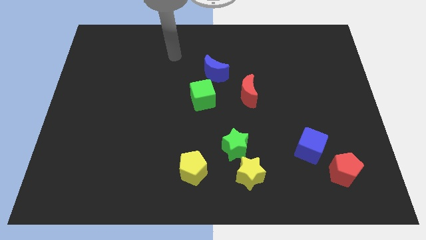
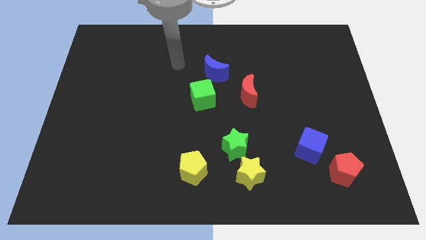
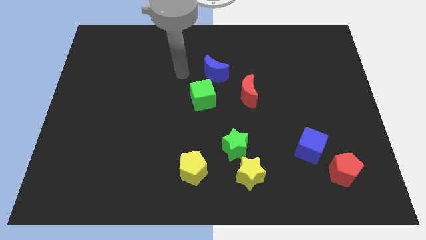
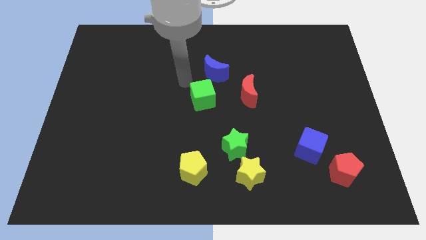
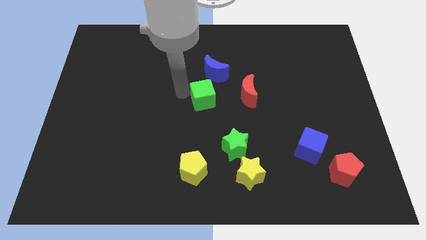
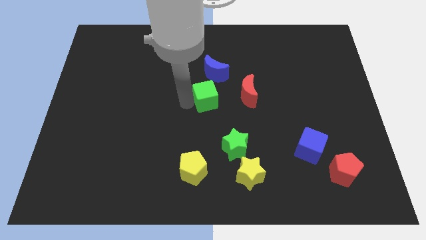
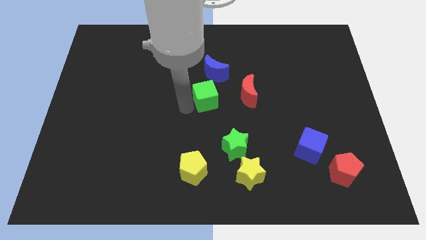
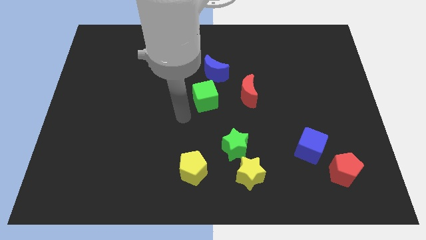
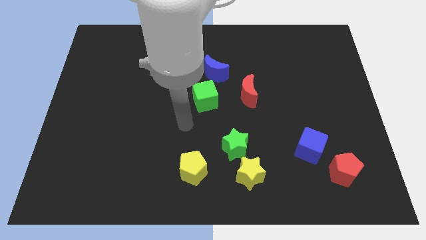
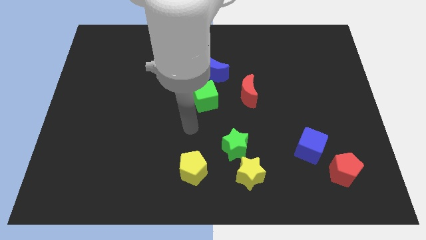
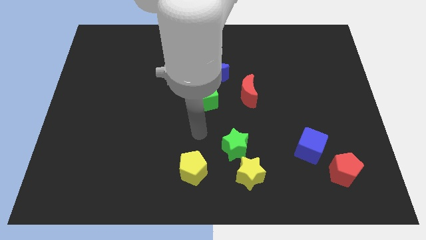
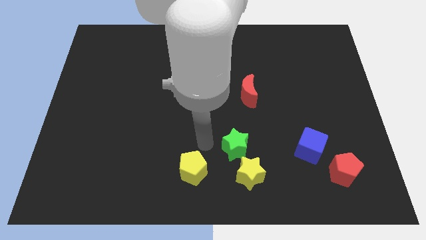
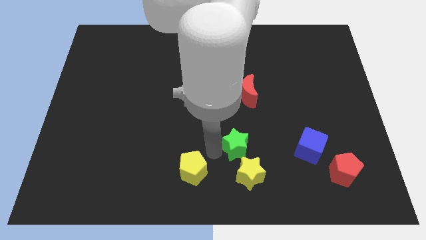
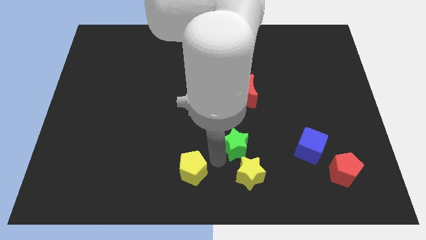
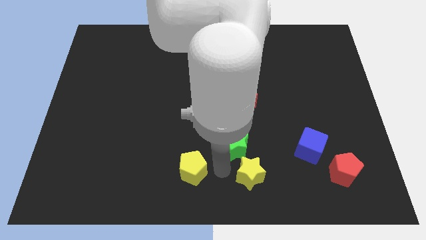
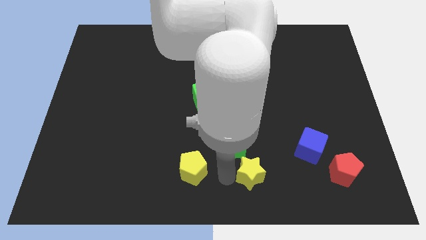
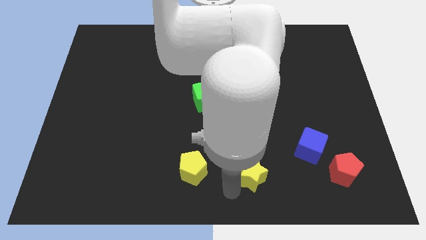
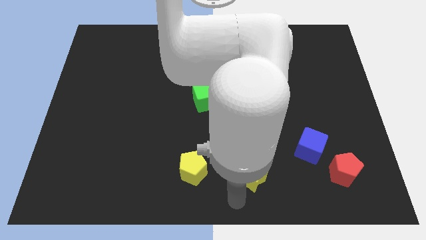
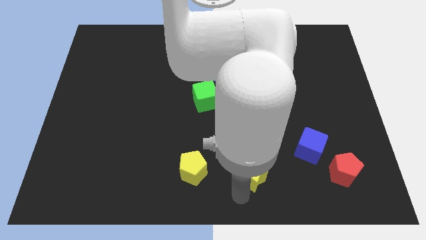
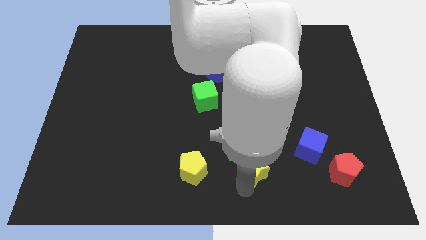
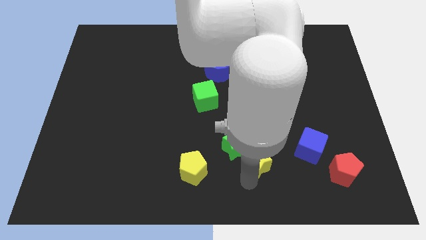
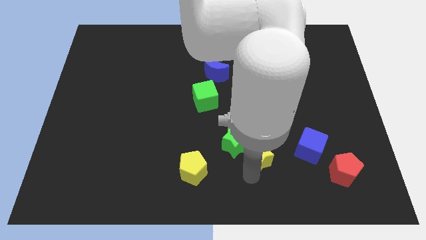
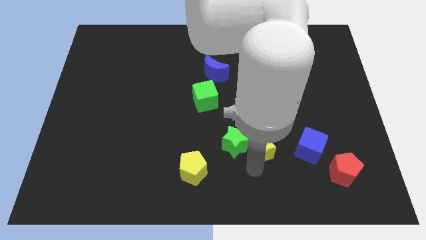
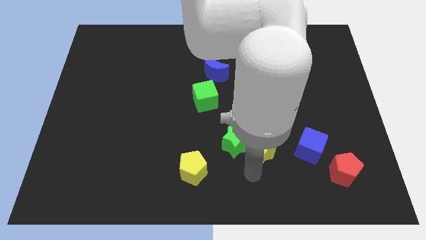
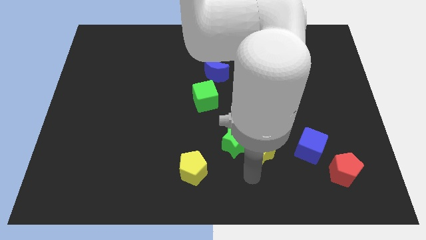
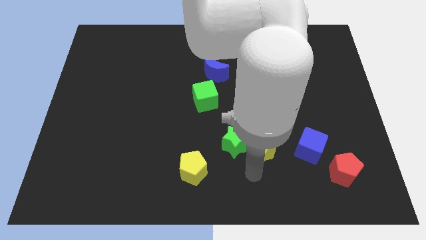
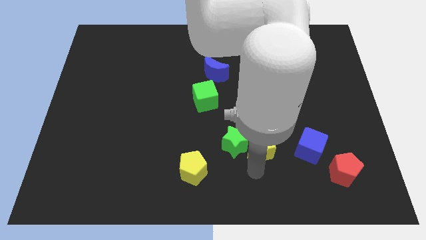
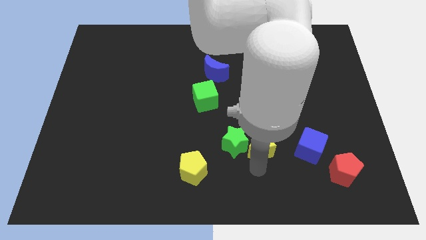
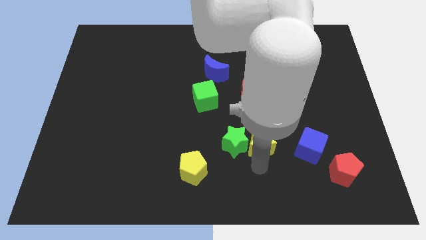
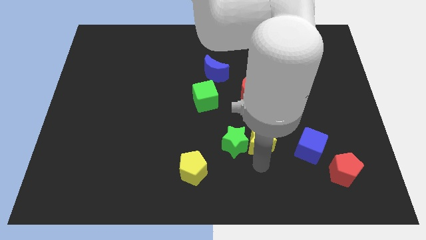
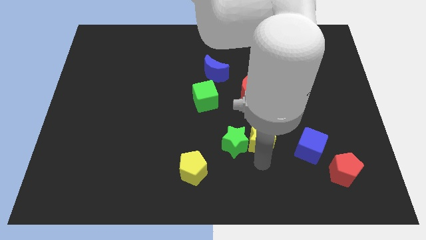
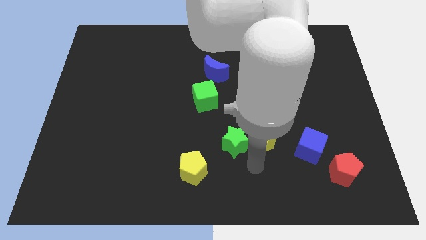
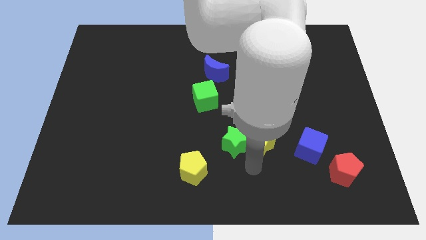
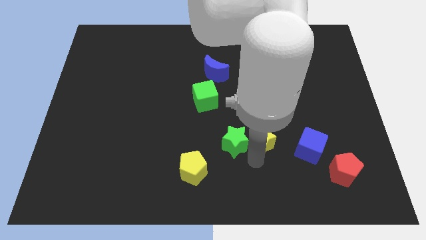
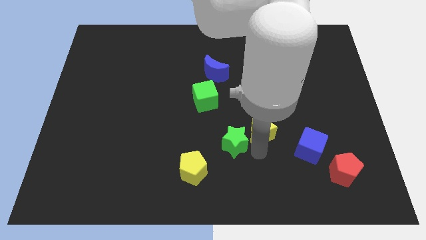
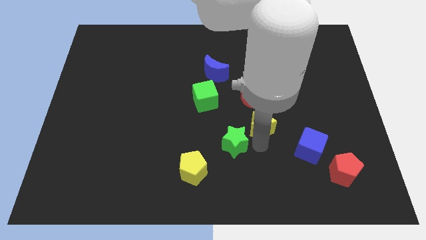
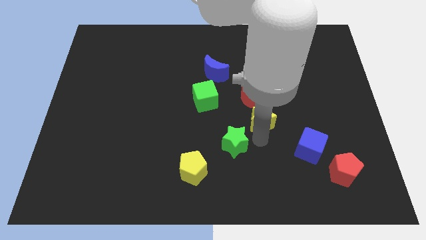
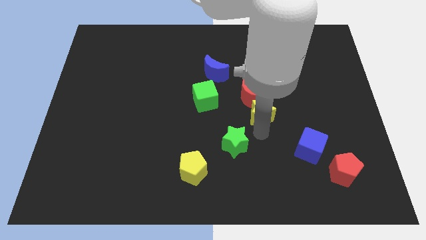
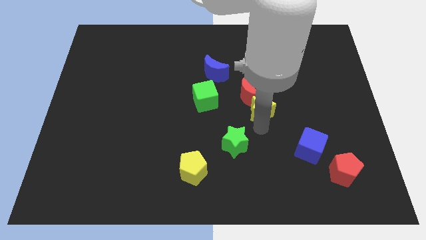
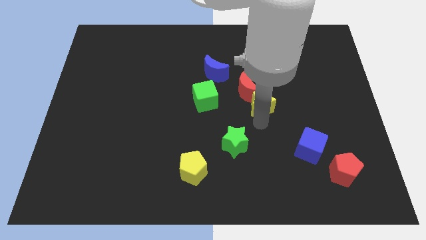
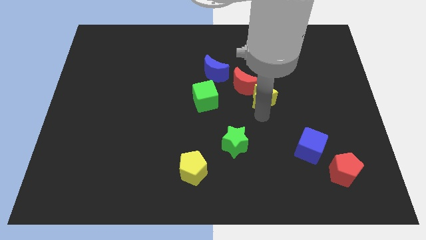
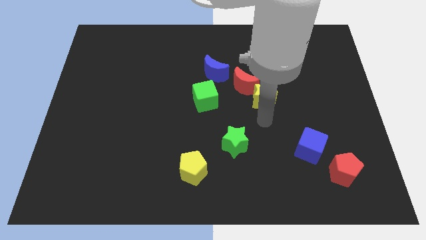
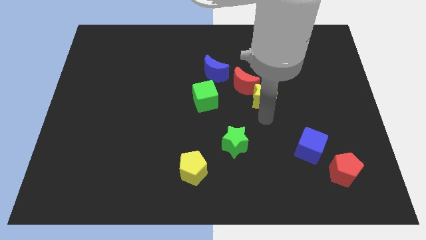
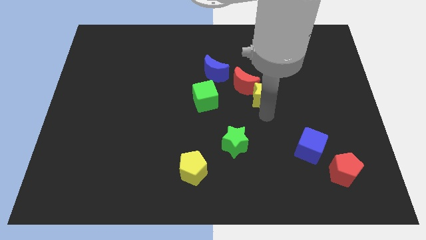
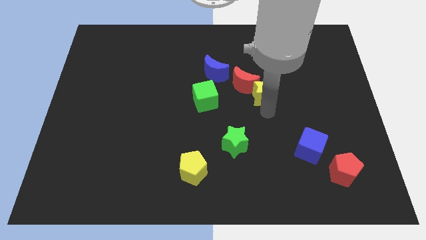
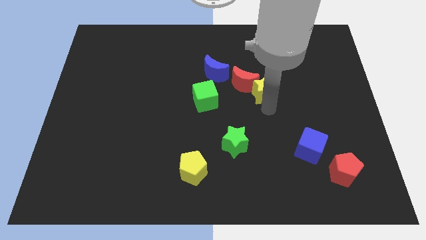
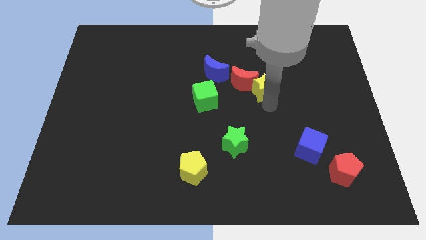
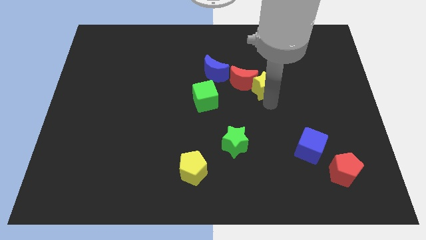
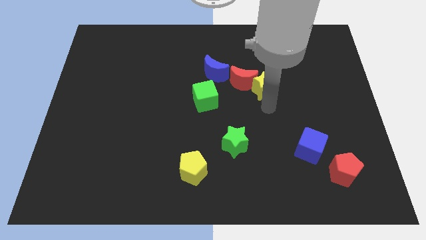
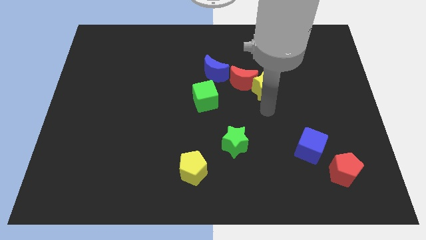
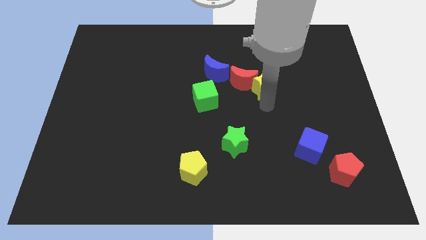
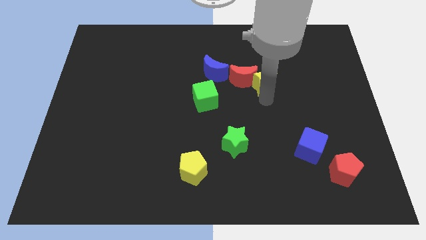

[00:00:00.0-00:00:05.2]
push the yellow star to the top right of the red moon

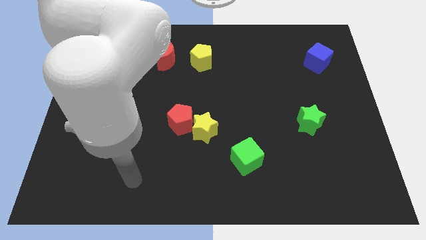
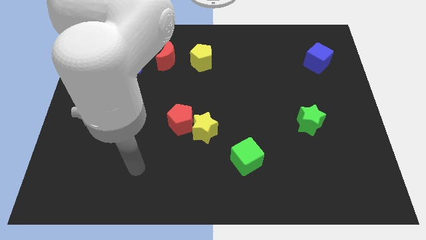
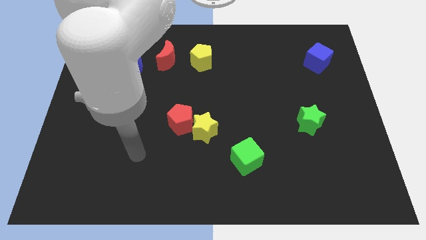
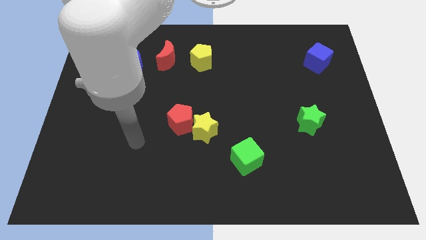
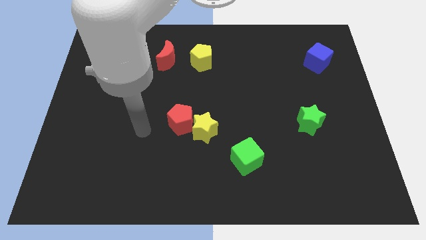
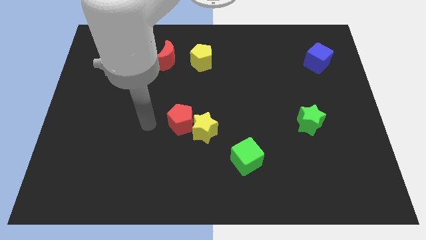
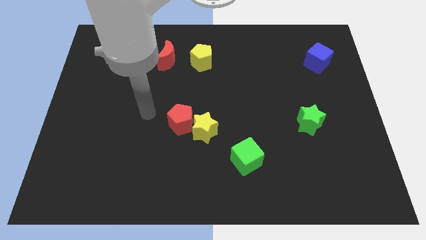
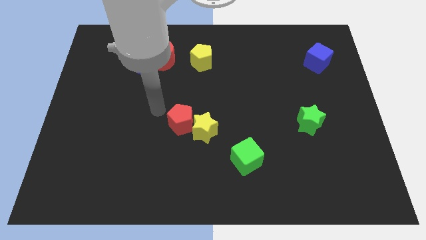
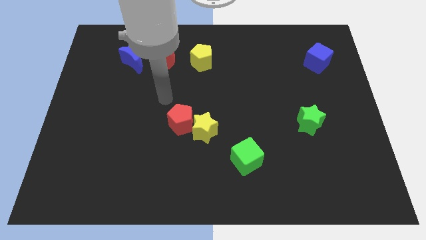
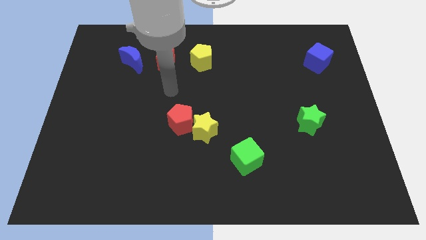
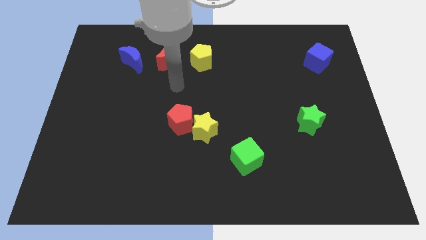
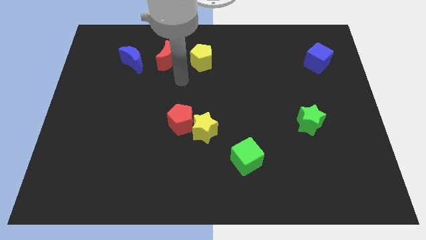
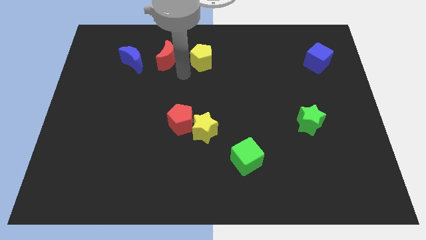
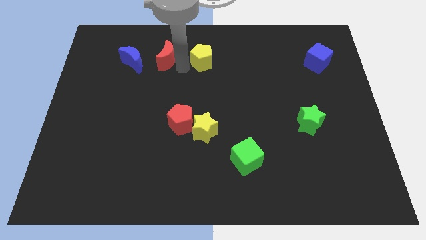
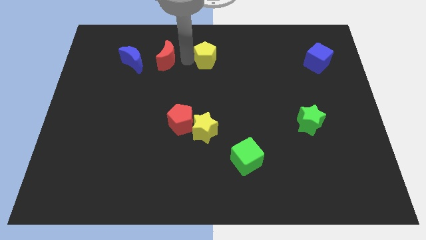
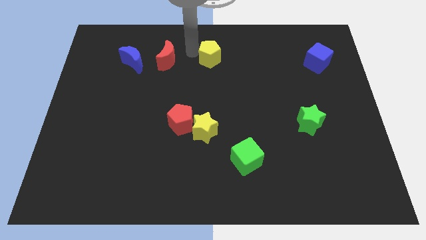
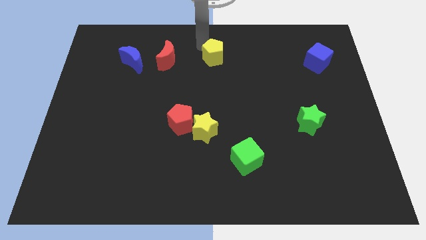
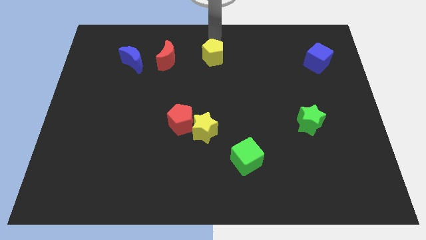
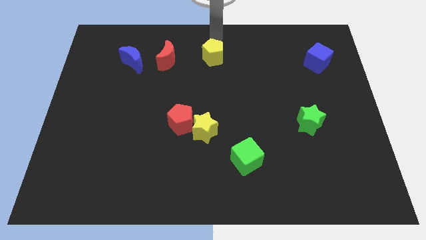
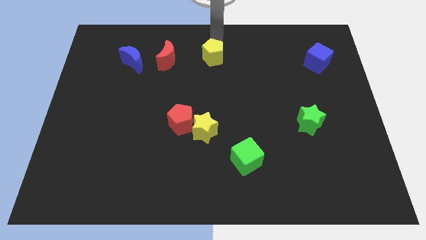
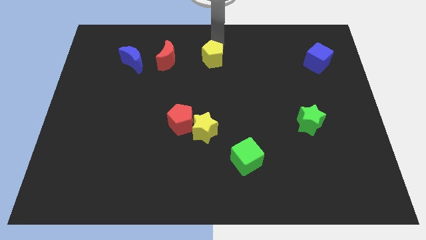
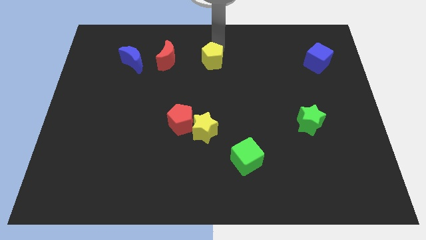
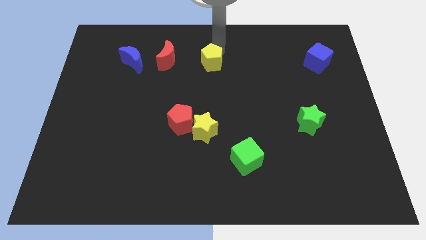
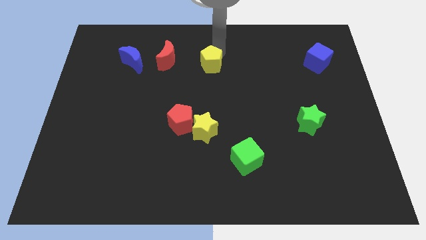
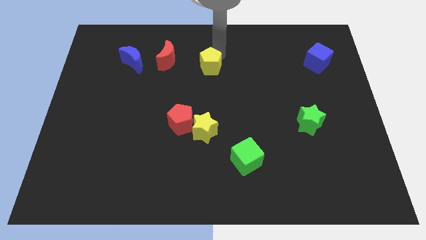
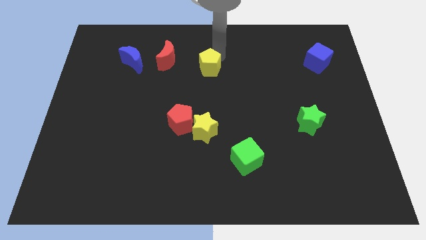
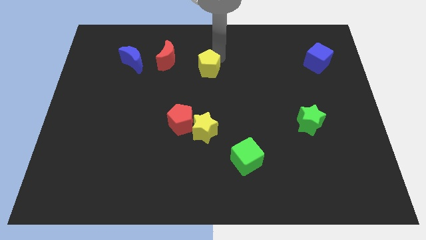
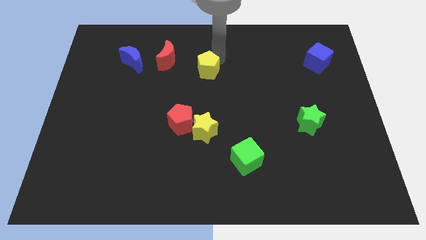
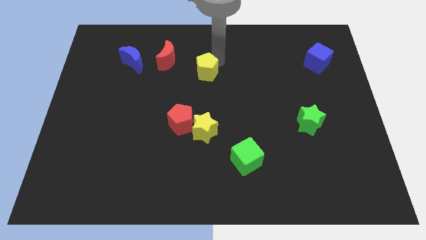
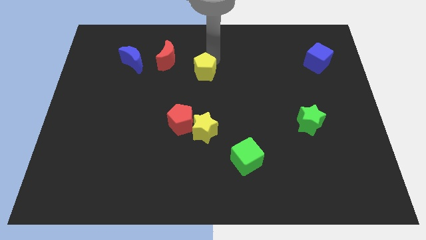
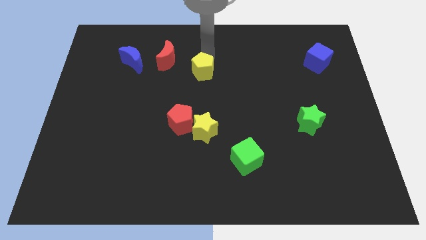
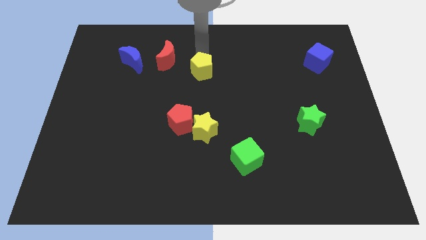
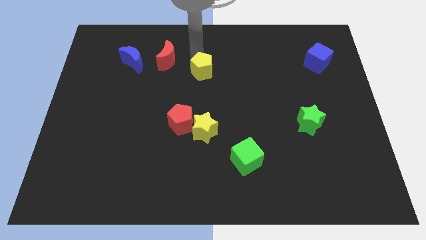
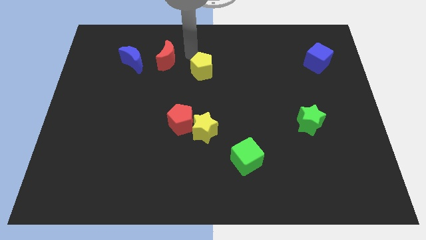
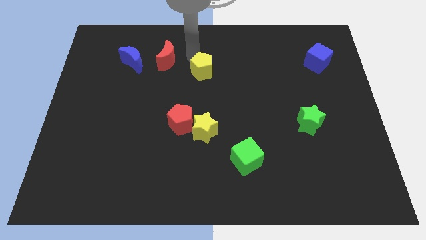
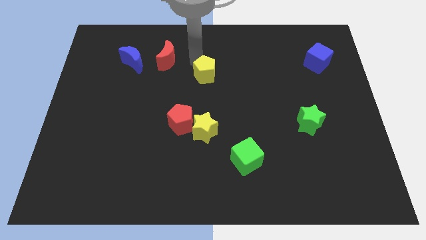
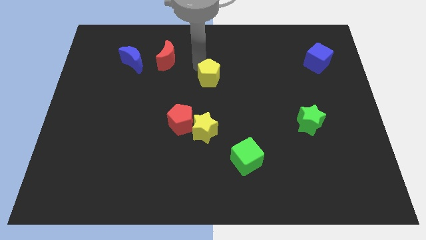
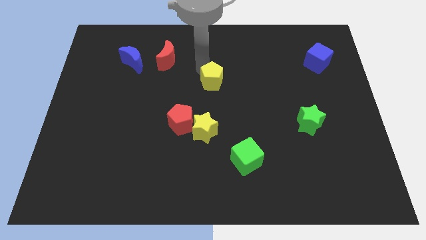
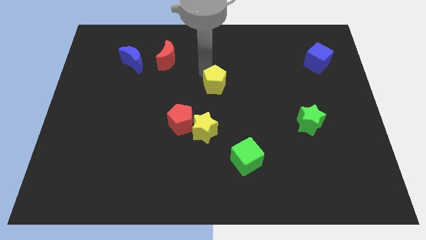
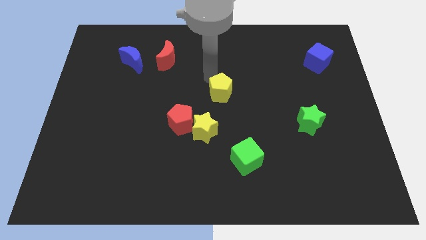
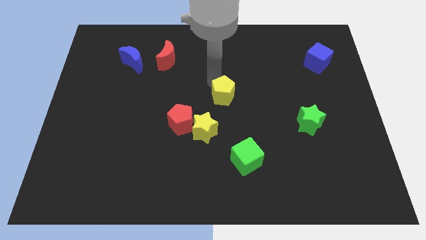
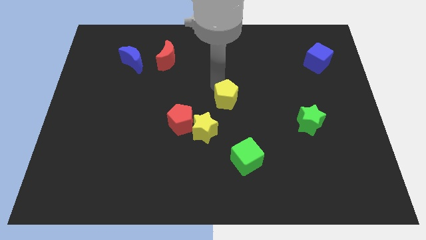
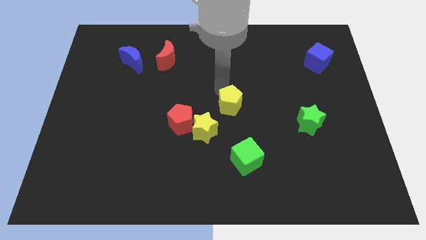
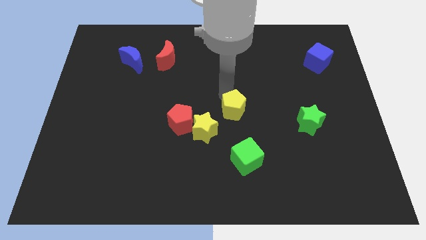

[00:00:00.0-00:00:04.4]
move the yellow pentagon right of the red pentagon
